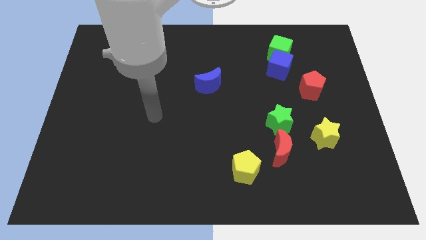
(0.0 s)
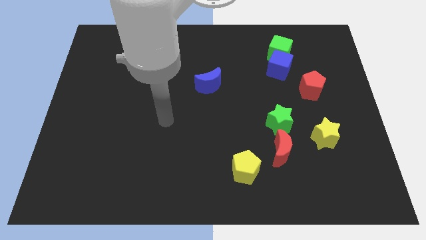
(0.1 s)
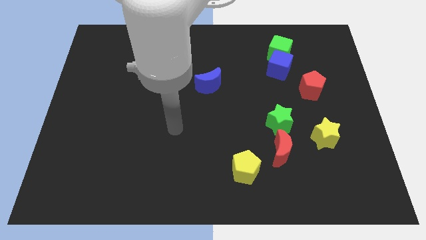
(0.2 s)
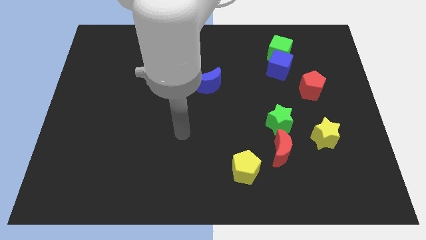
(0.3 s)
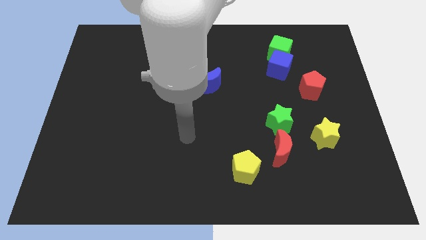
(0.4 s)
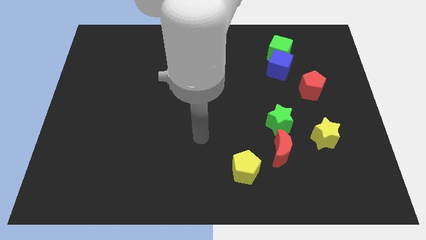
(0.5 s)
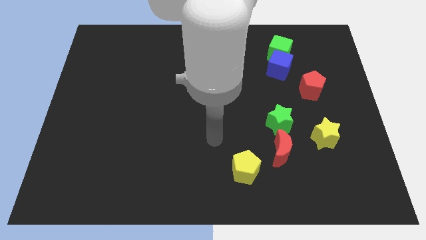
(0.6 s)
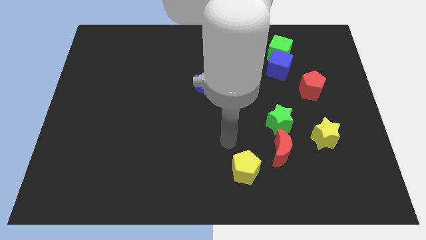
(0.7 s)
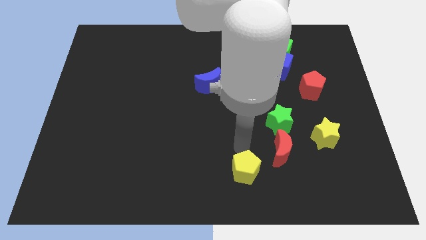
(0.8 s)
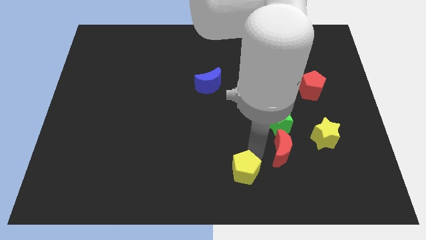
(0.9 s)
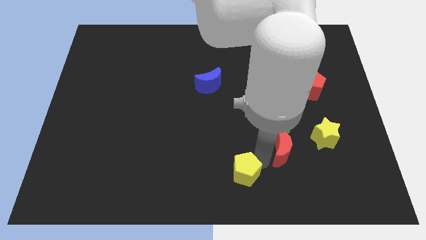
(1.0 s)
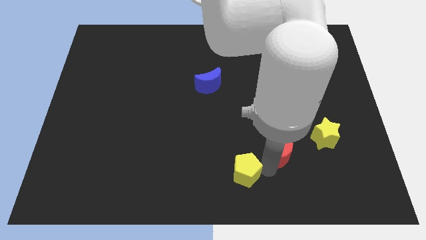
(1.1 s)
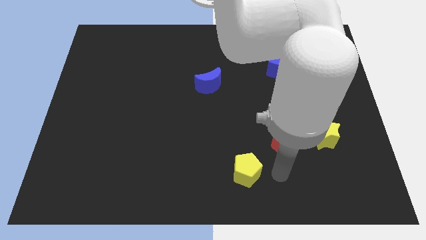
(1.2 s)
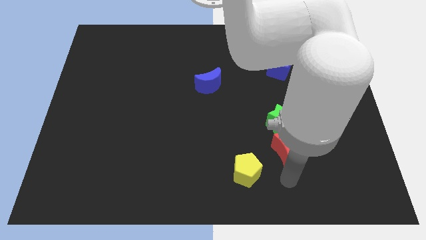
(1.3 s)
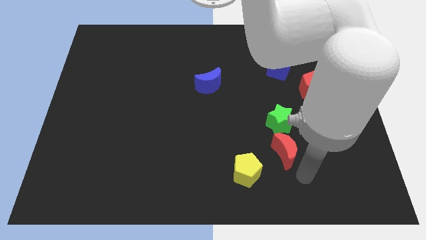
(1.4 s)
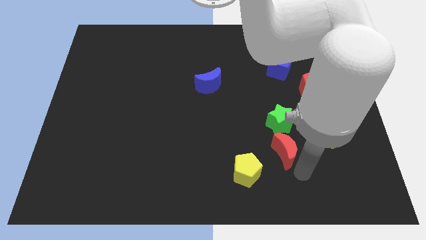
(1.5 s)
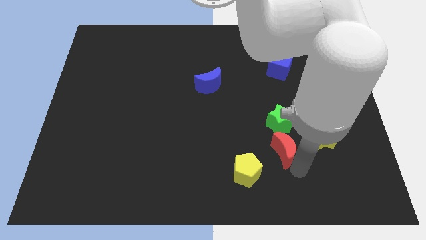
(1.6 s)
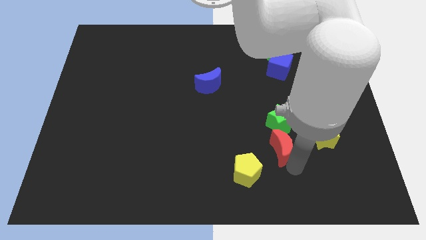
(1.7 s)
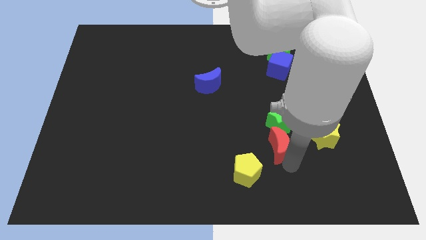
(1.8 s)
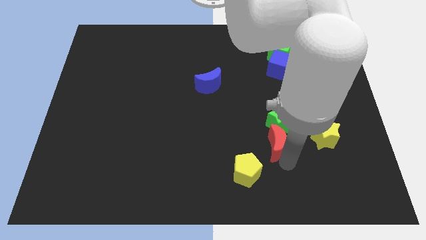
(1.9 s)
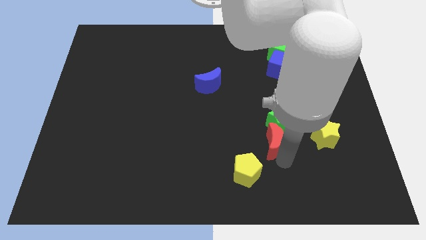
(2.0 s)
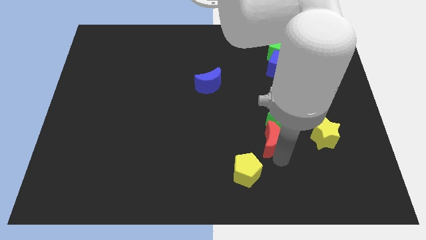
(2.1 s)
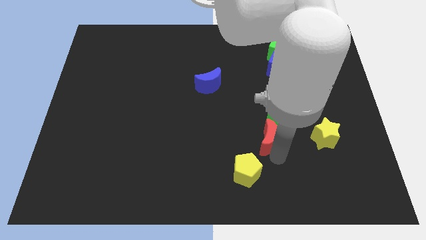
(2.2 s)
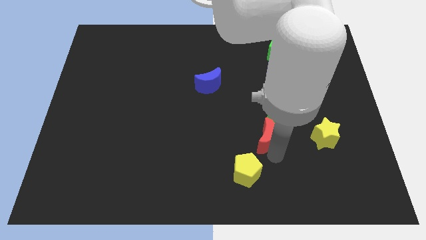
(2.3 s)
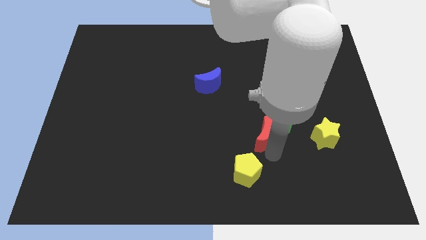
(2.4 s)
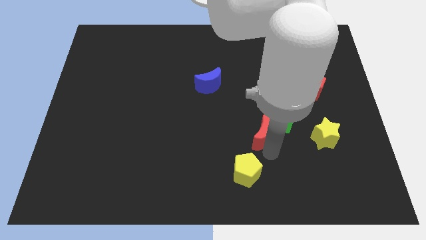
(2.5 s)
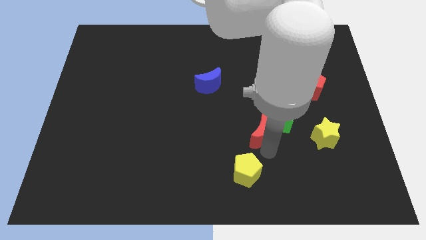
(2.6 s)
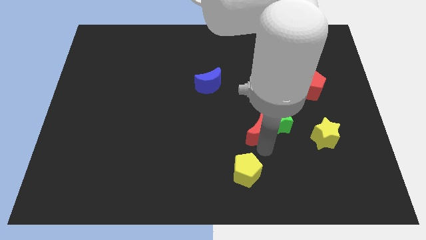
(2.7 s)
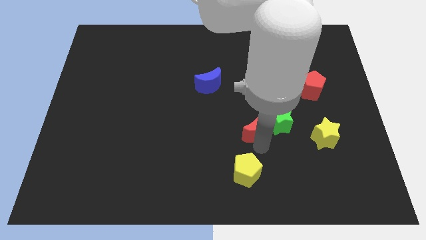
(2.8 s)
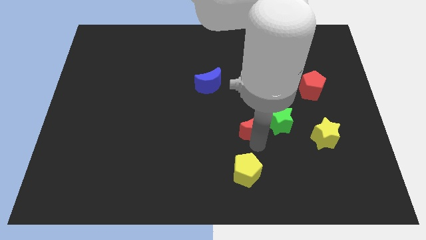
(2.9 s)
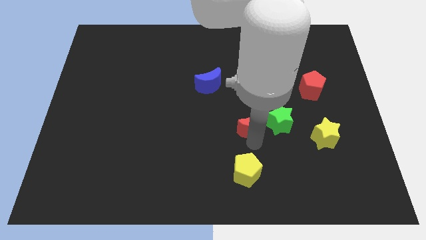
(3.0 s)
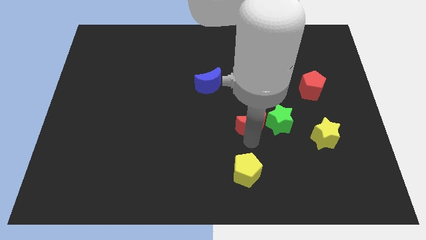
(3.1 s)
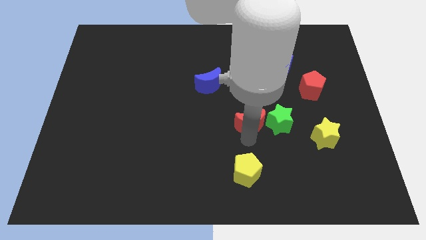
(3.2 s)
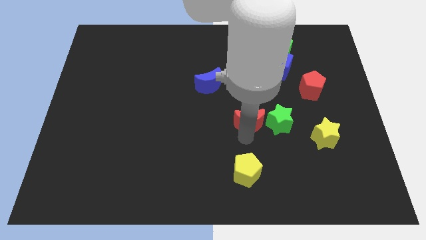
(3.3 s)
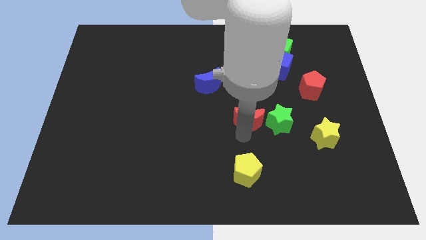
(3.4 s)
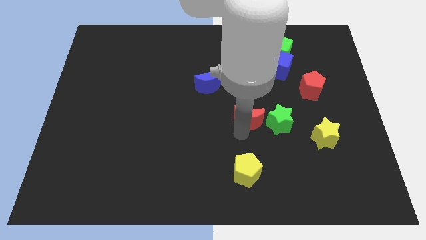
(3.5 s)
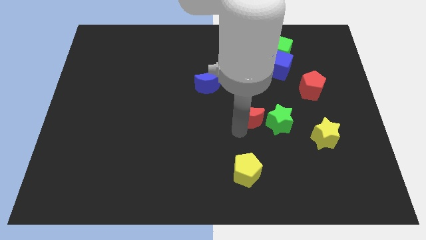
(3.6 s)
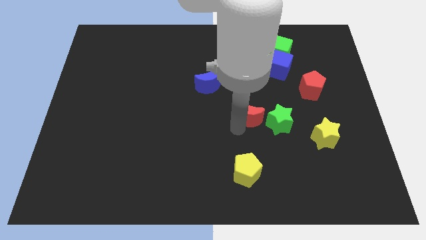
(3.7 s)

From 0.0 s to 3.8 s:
push the red moon a little bit upwards

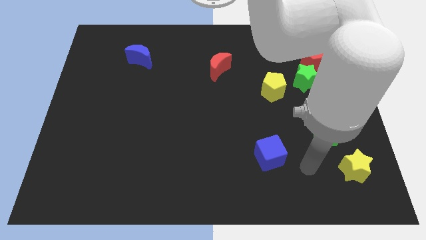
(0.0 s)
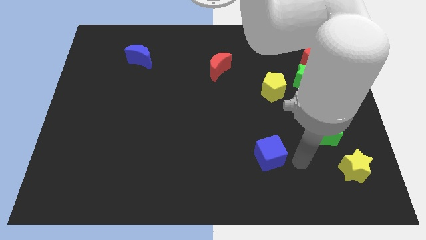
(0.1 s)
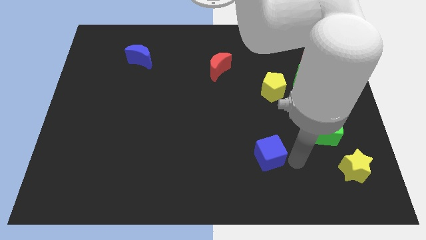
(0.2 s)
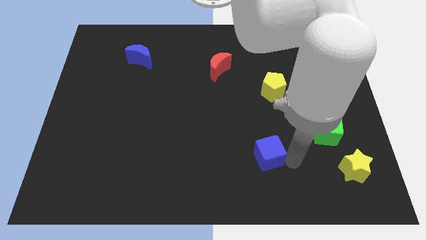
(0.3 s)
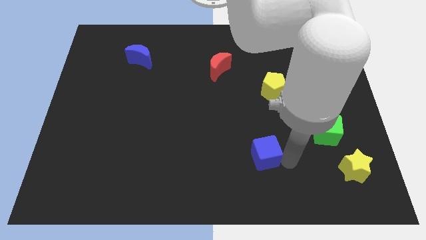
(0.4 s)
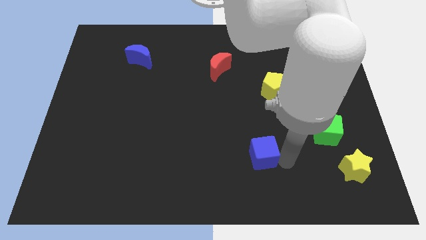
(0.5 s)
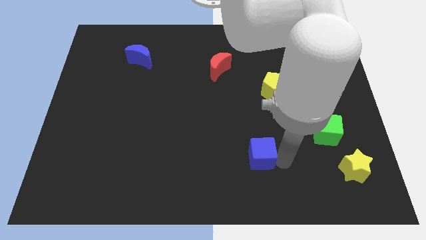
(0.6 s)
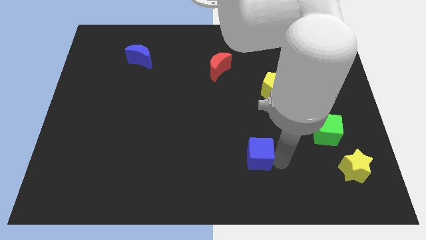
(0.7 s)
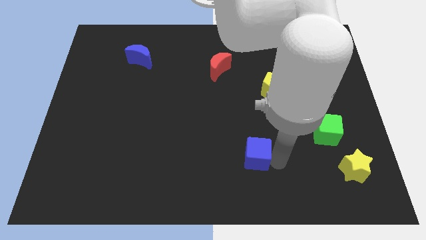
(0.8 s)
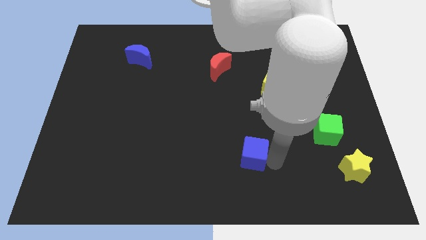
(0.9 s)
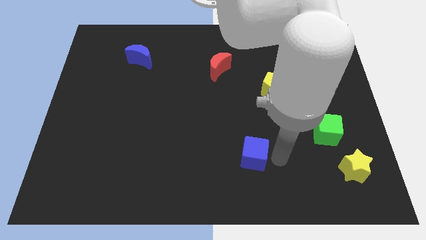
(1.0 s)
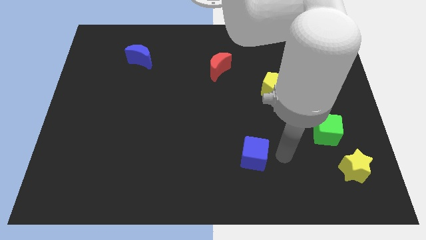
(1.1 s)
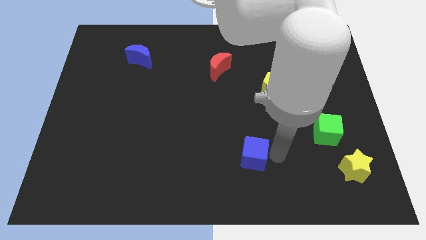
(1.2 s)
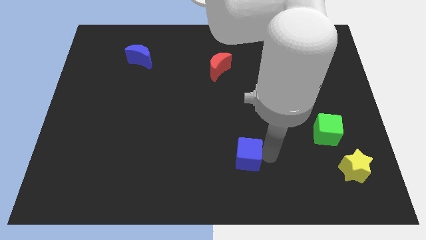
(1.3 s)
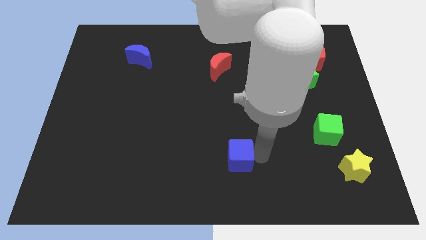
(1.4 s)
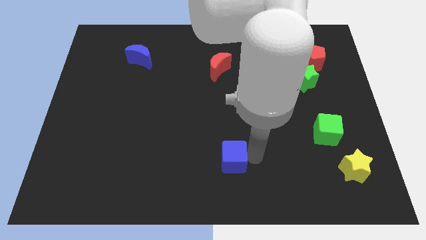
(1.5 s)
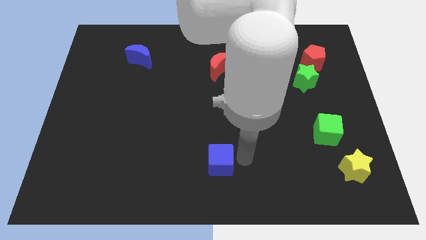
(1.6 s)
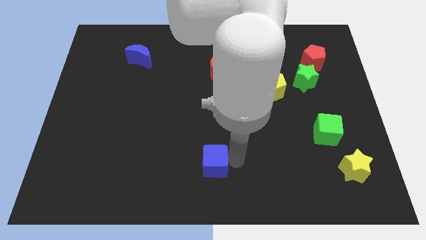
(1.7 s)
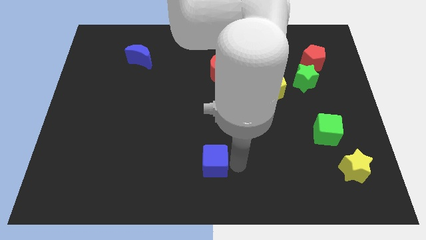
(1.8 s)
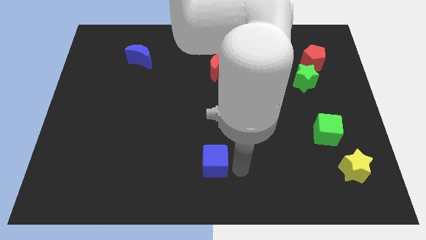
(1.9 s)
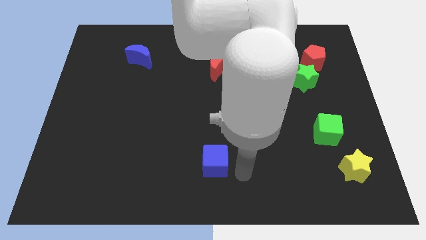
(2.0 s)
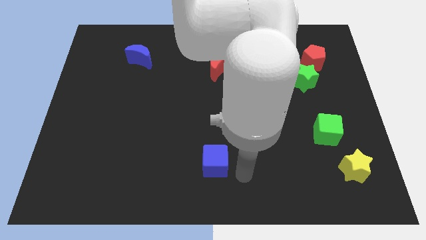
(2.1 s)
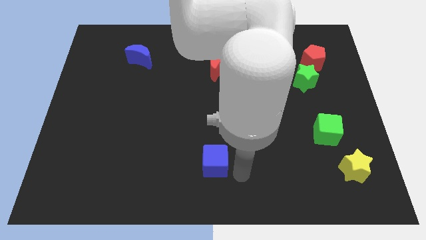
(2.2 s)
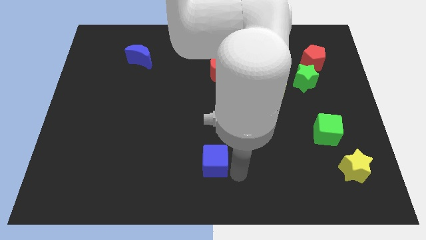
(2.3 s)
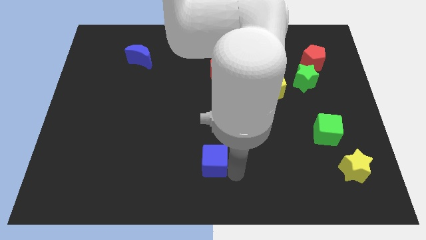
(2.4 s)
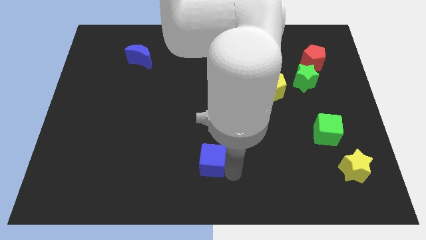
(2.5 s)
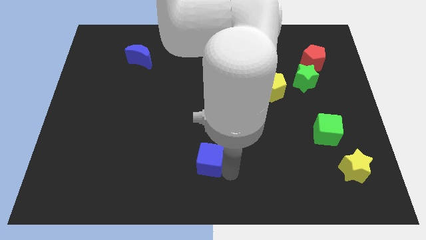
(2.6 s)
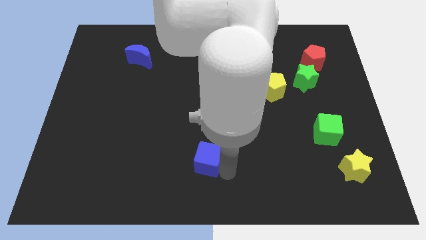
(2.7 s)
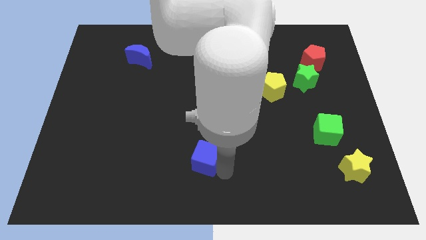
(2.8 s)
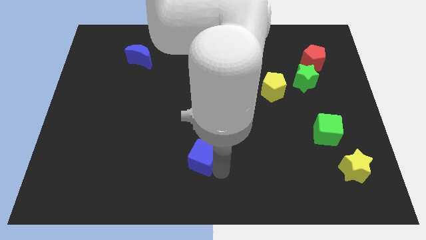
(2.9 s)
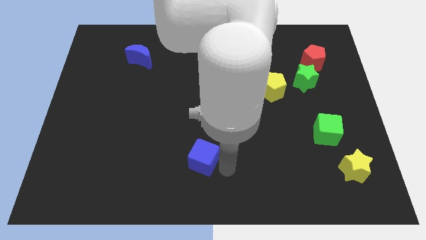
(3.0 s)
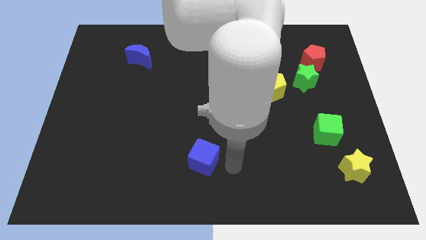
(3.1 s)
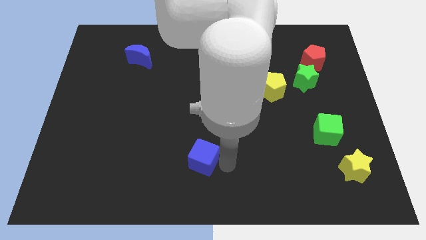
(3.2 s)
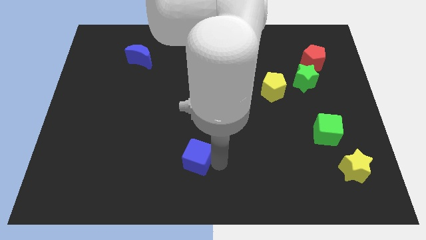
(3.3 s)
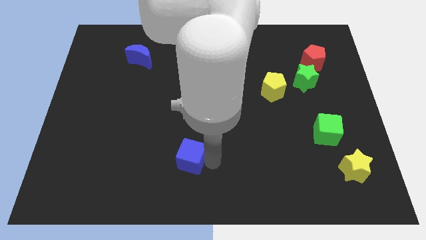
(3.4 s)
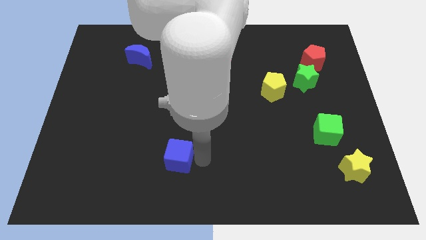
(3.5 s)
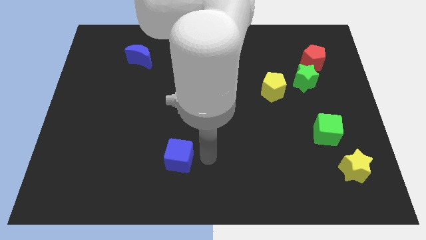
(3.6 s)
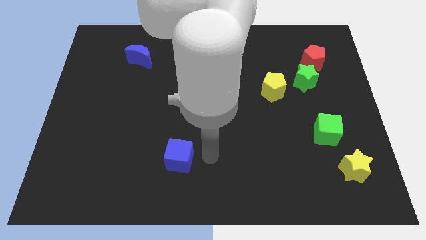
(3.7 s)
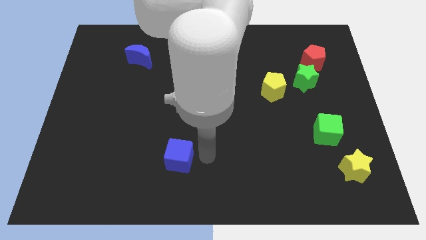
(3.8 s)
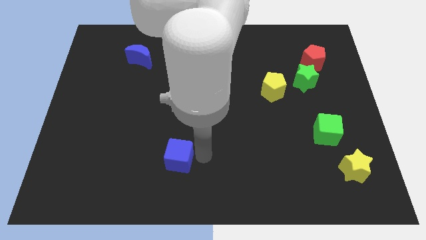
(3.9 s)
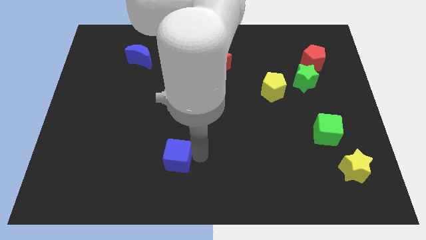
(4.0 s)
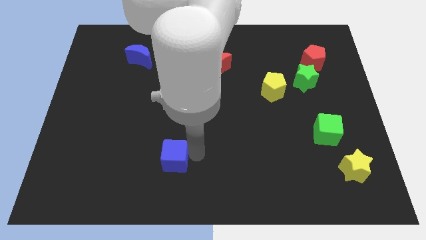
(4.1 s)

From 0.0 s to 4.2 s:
move the blue cube to the left
